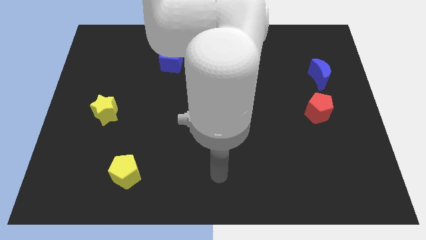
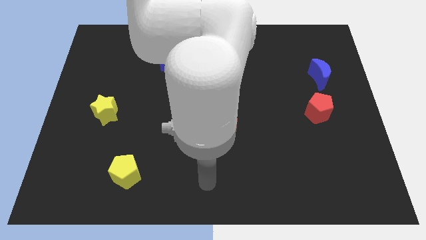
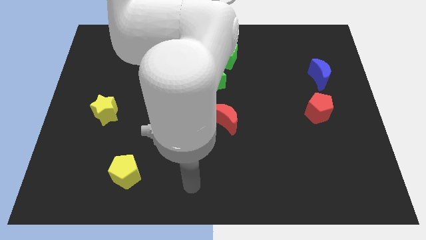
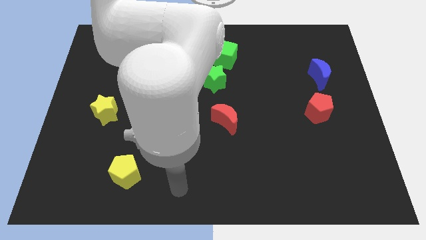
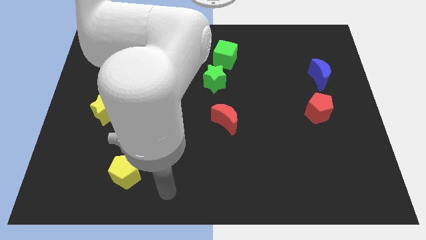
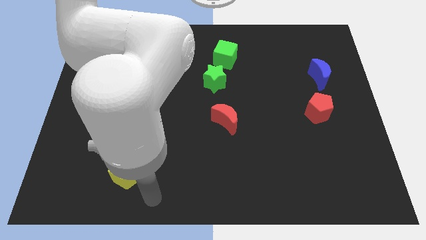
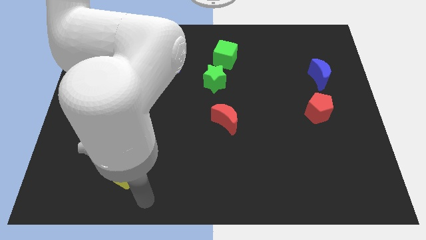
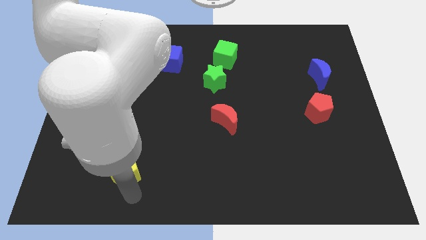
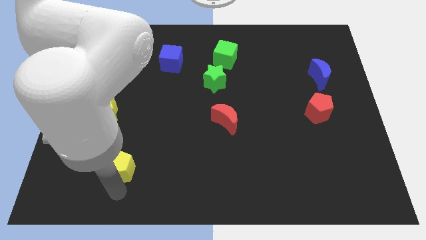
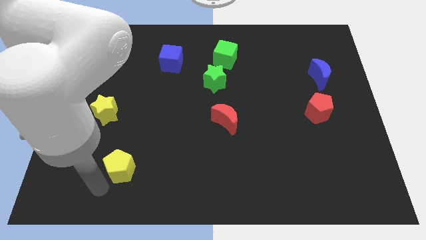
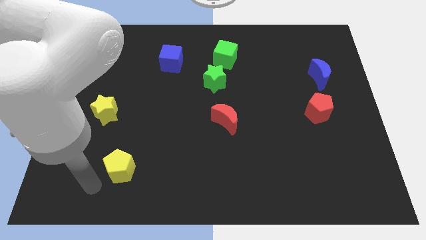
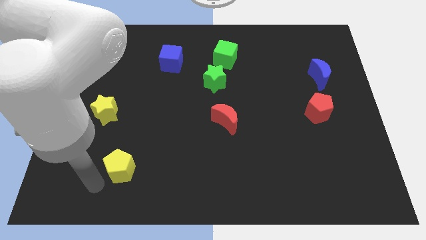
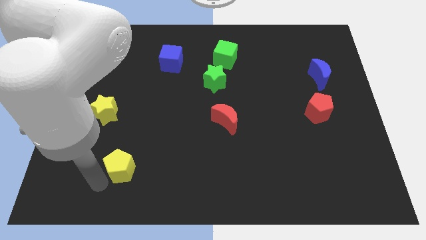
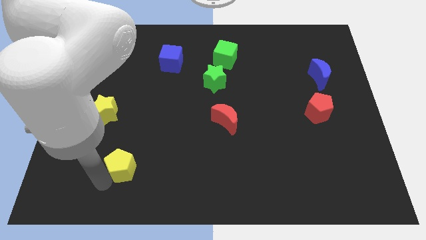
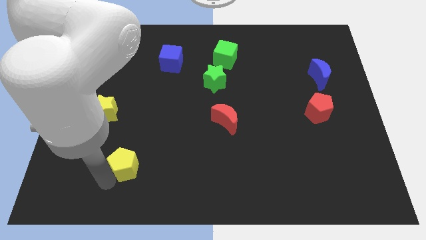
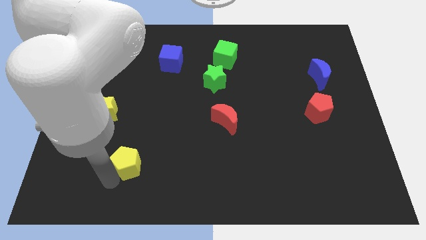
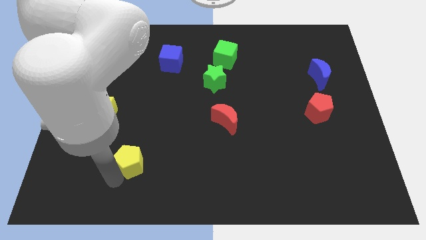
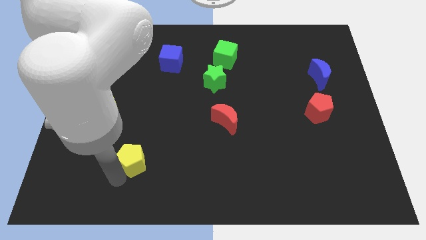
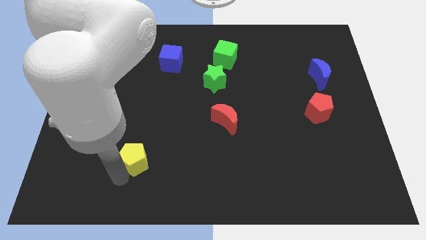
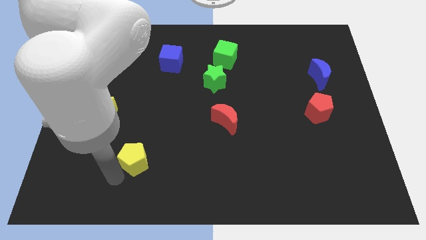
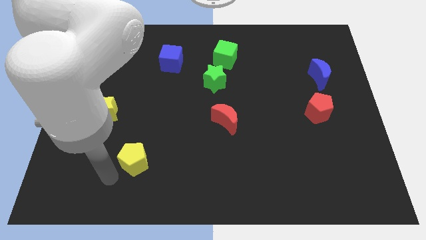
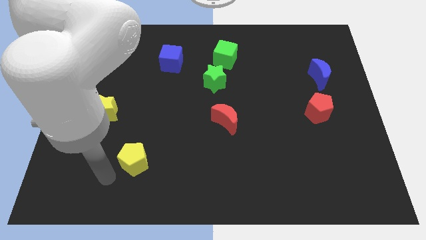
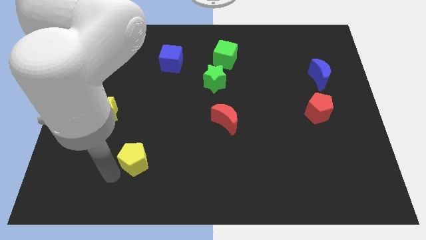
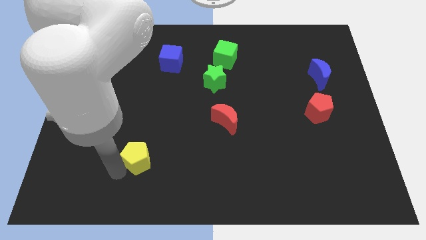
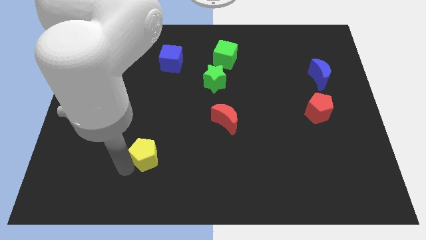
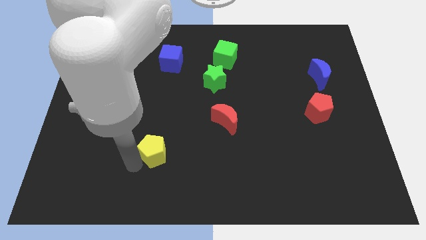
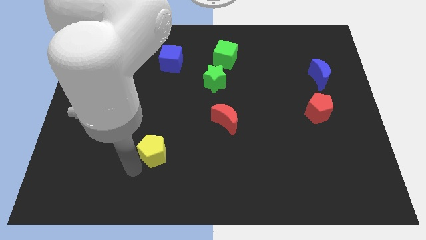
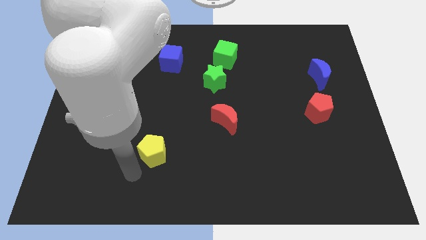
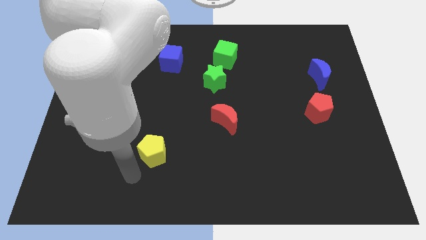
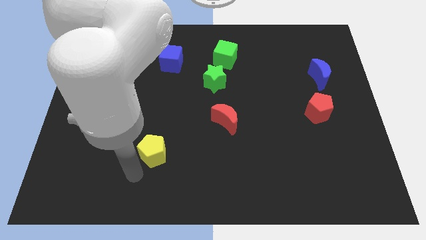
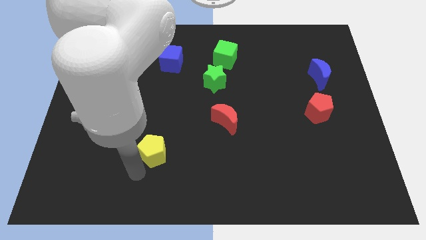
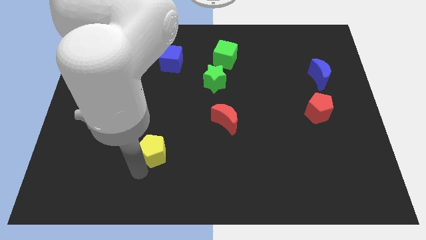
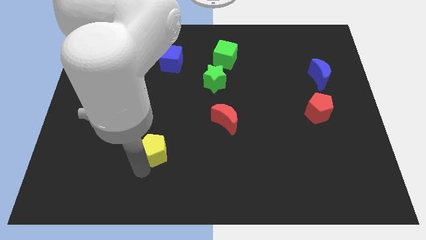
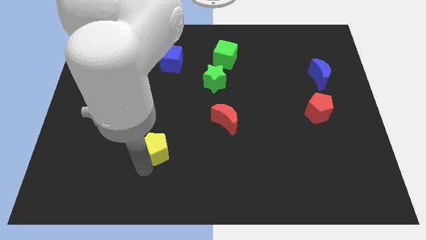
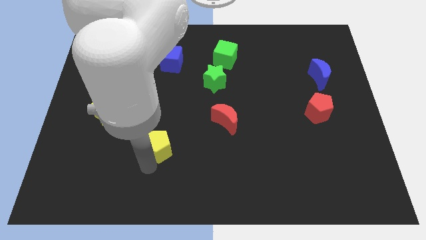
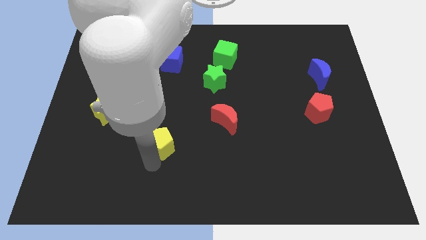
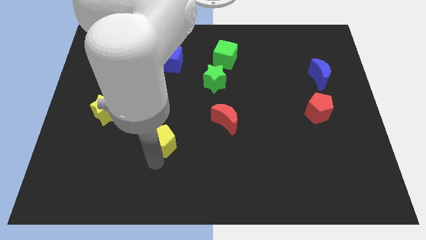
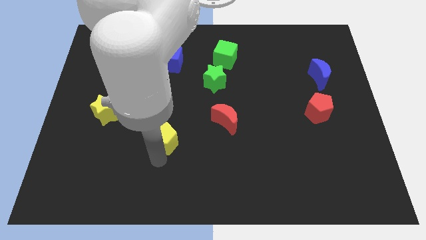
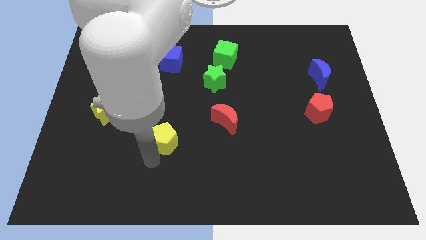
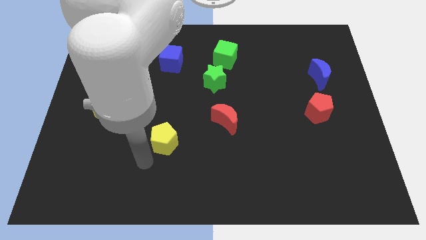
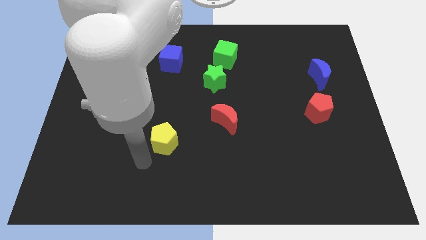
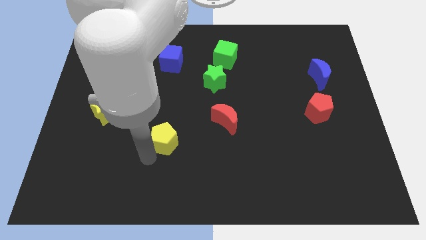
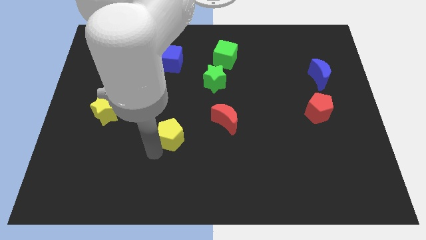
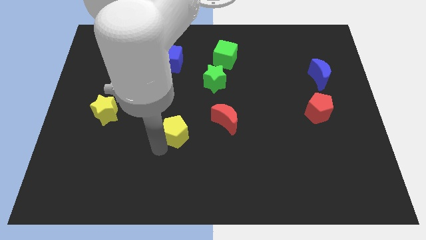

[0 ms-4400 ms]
push the yellow pentagon to the middle

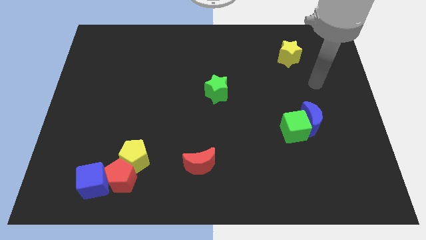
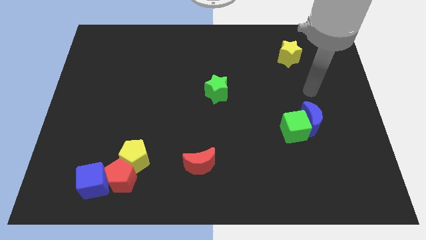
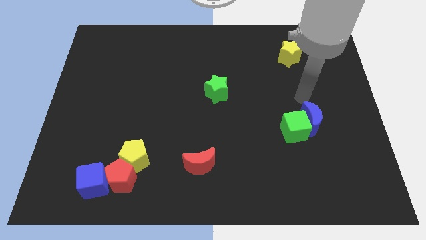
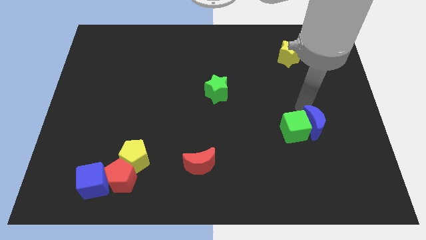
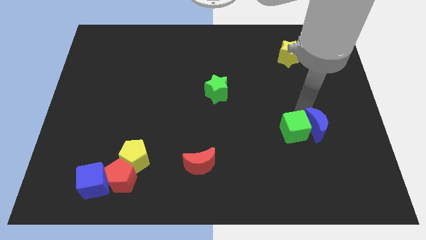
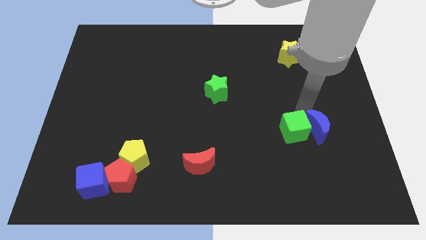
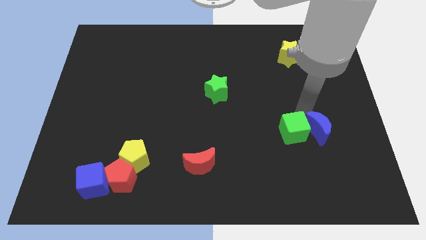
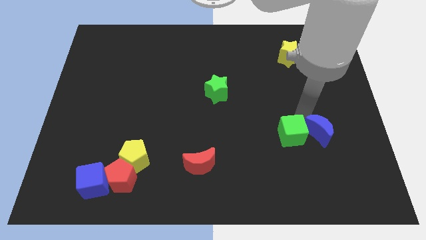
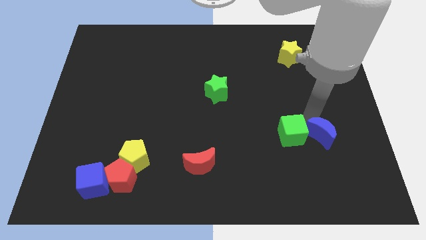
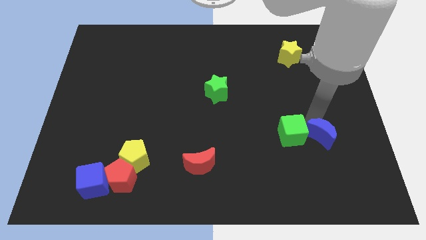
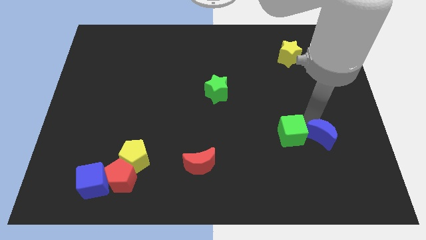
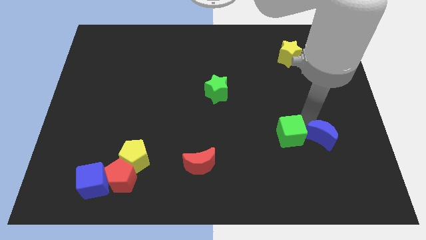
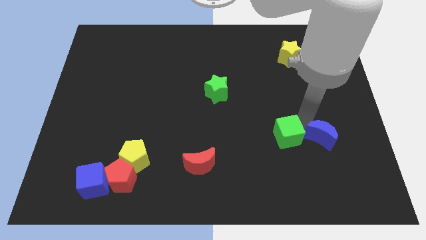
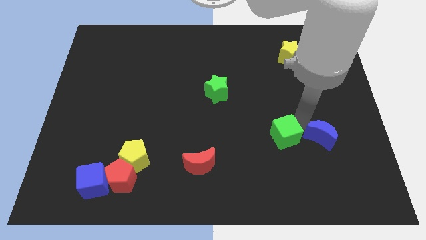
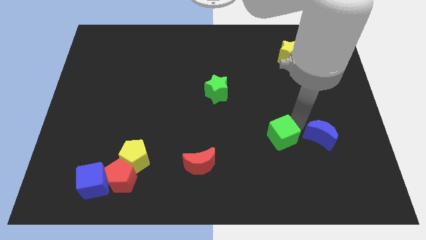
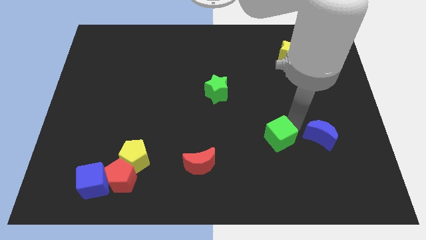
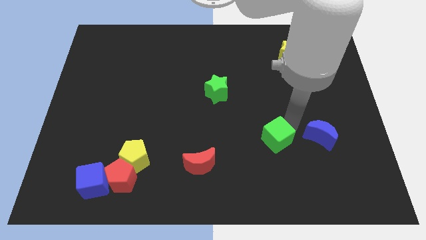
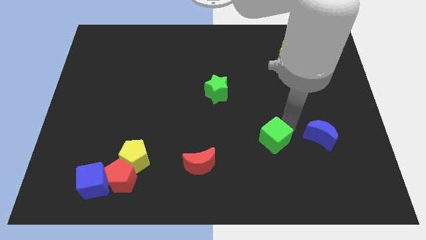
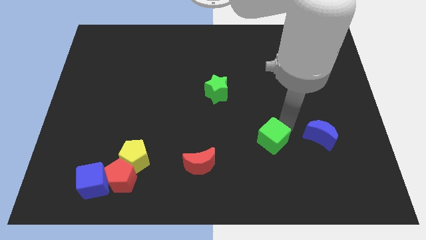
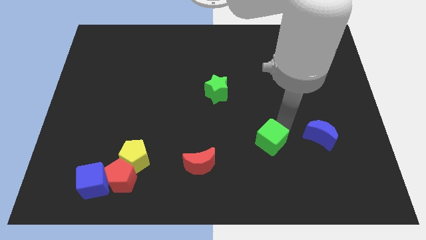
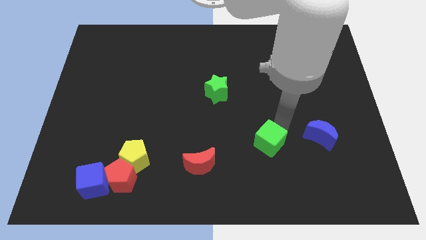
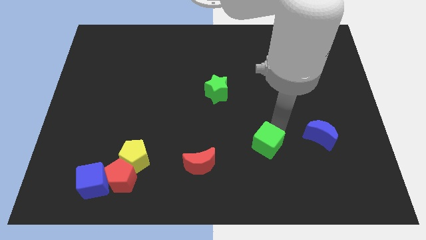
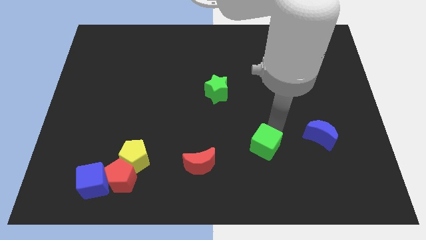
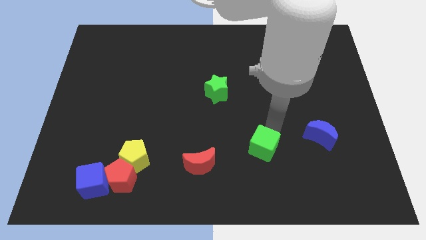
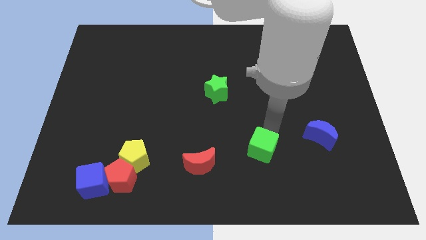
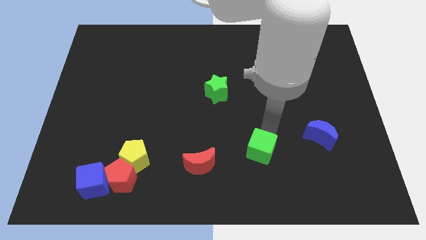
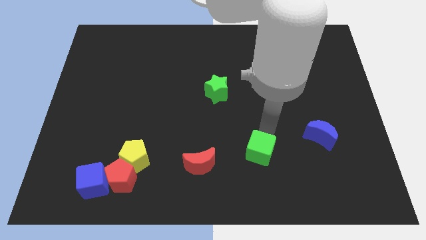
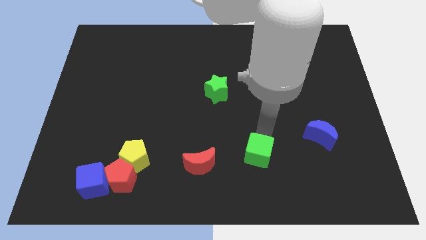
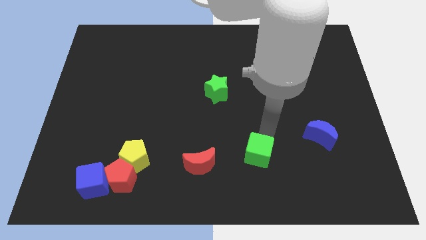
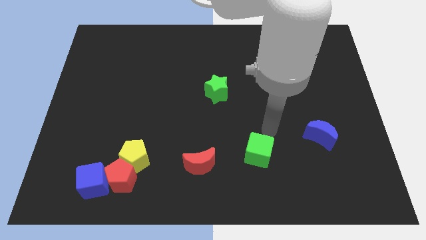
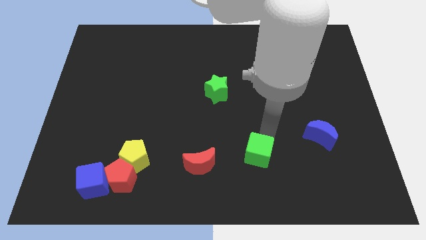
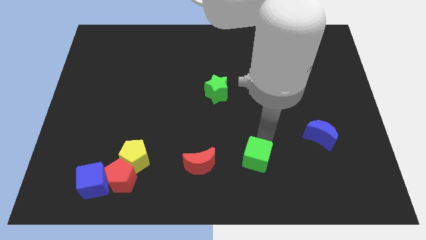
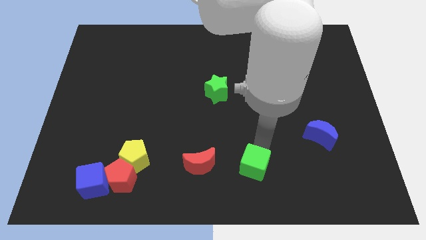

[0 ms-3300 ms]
push the green cube to the bottom
